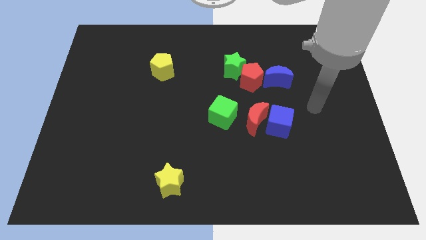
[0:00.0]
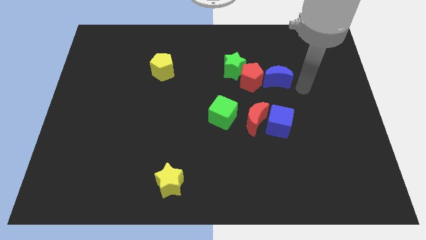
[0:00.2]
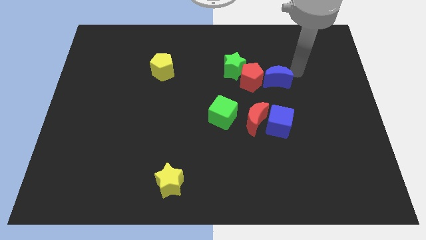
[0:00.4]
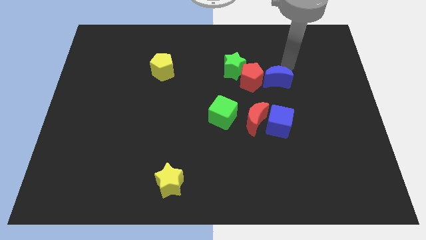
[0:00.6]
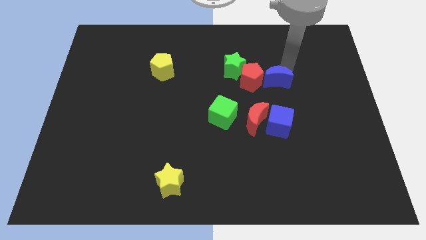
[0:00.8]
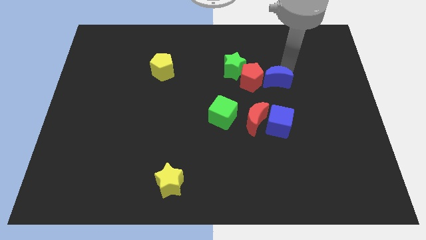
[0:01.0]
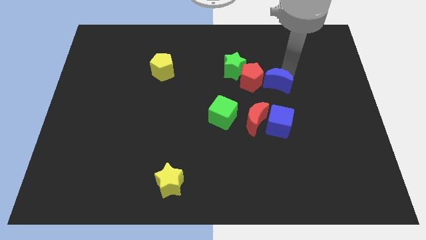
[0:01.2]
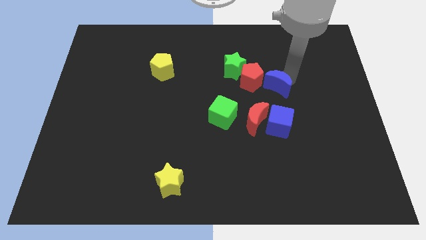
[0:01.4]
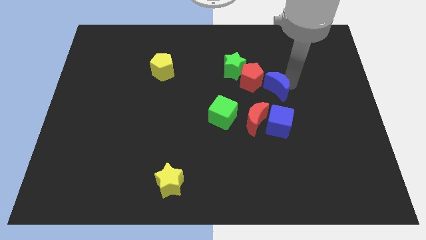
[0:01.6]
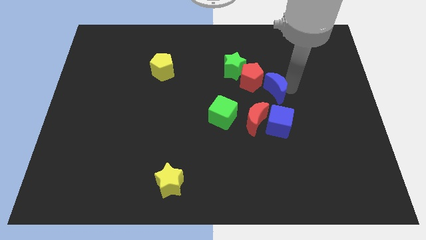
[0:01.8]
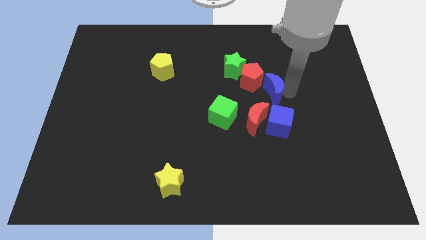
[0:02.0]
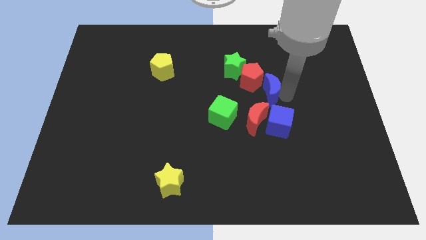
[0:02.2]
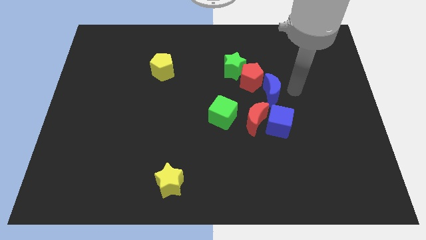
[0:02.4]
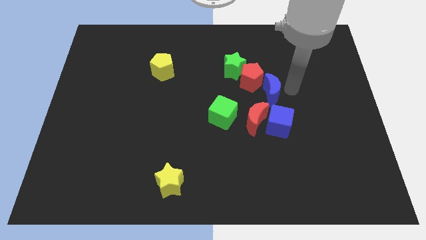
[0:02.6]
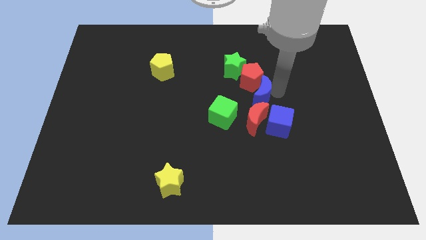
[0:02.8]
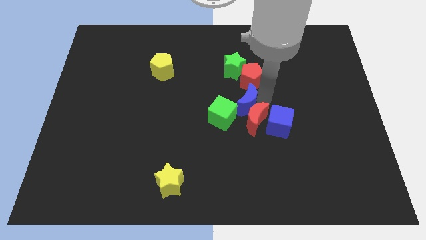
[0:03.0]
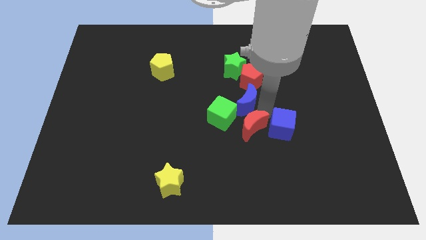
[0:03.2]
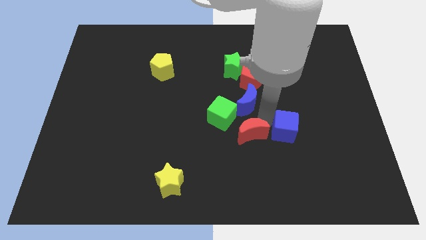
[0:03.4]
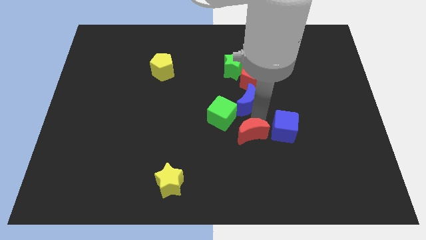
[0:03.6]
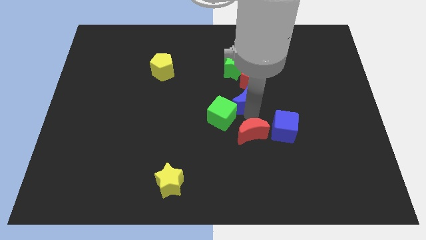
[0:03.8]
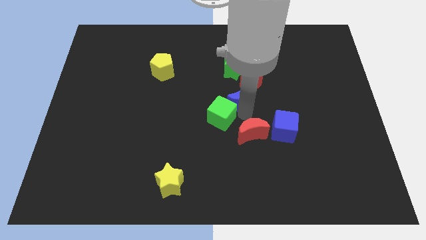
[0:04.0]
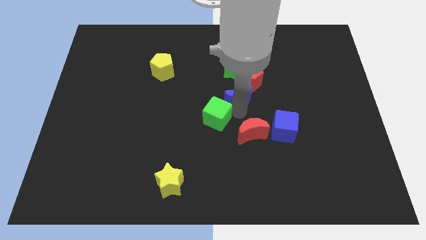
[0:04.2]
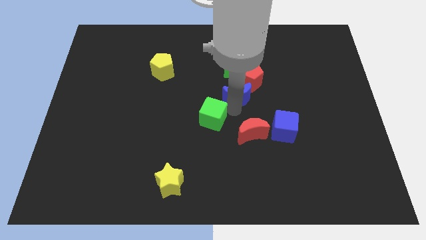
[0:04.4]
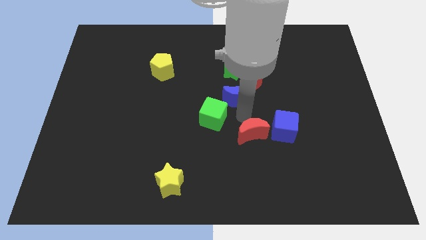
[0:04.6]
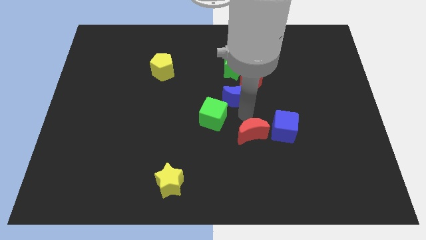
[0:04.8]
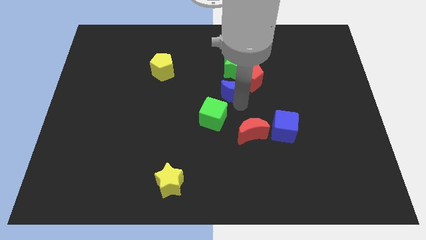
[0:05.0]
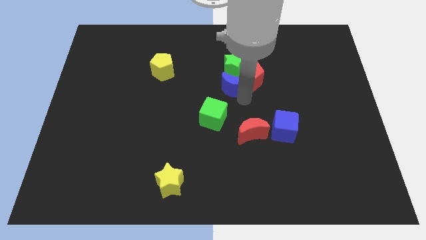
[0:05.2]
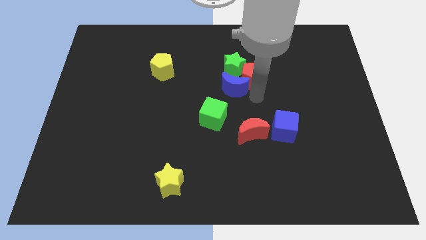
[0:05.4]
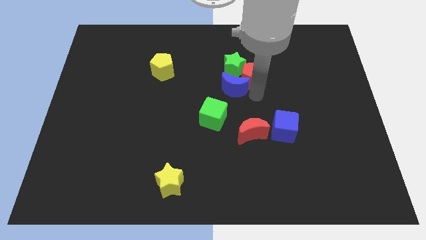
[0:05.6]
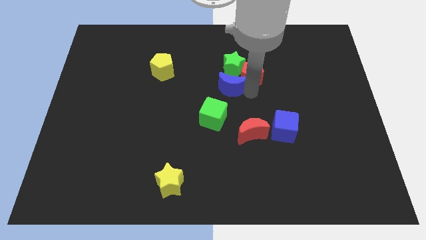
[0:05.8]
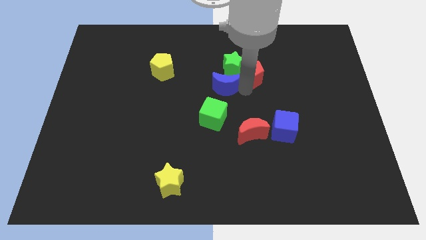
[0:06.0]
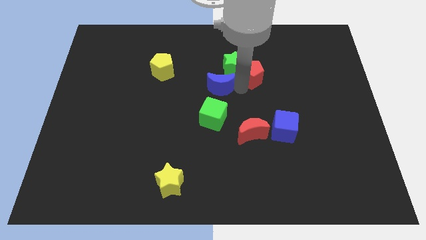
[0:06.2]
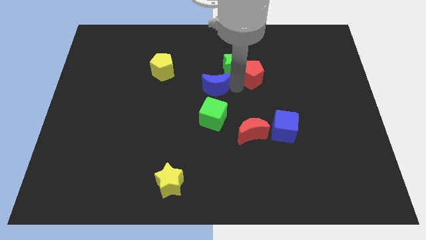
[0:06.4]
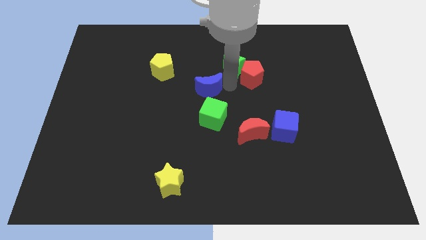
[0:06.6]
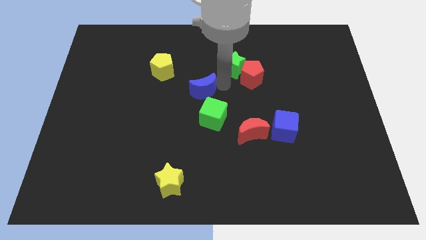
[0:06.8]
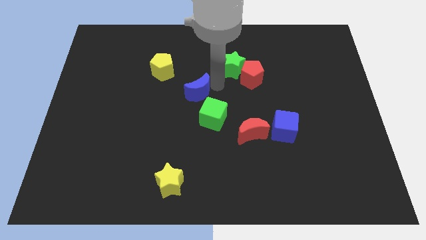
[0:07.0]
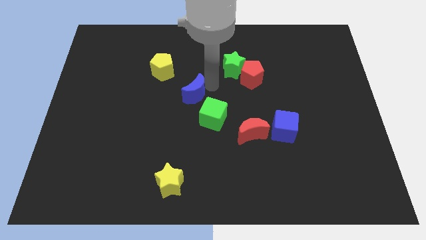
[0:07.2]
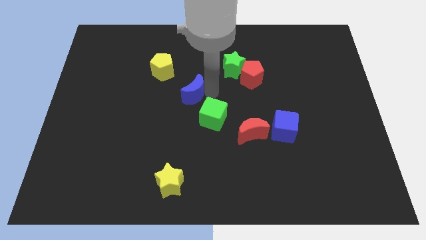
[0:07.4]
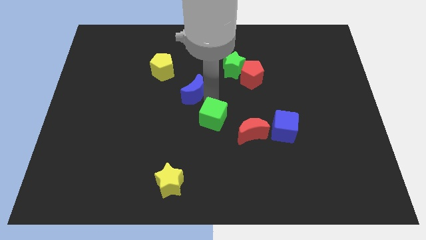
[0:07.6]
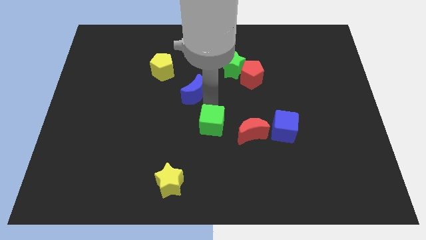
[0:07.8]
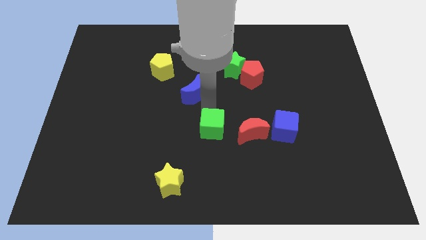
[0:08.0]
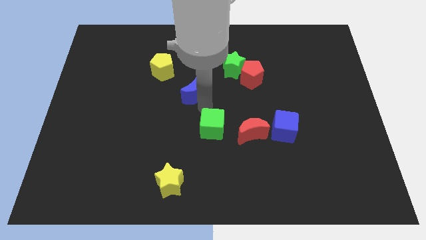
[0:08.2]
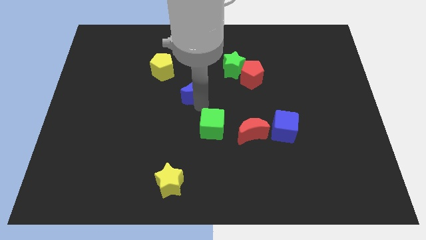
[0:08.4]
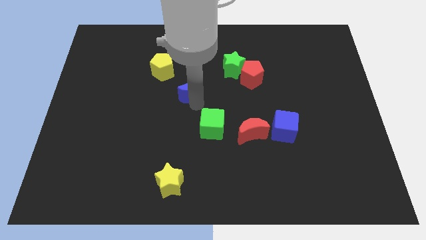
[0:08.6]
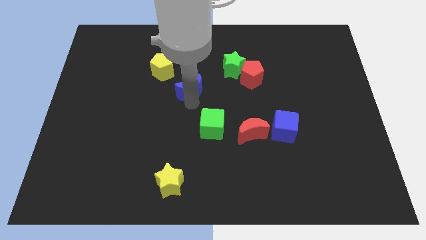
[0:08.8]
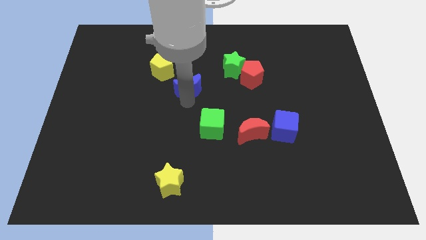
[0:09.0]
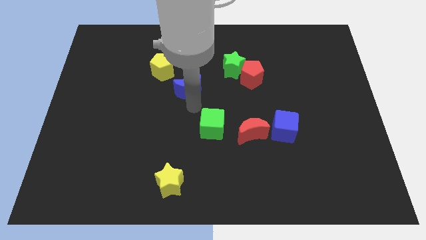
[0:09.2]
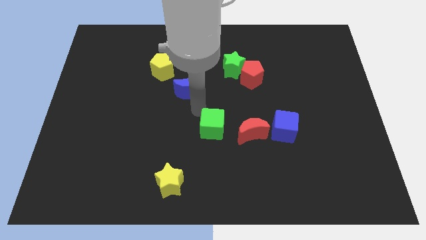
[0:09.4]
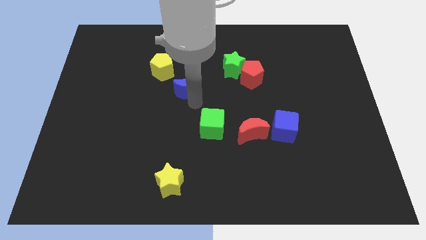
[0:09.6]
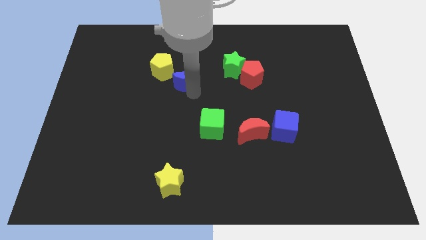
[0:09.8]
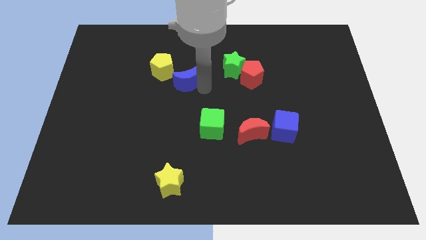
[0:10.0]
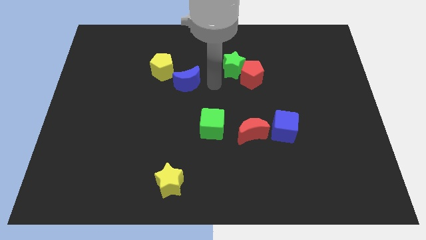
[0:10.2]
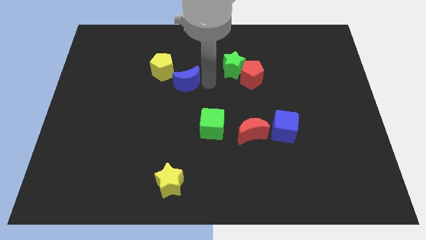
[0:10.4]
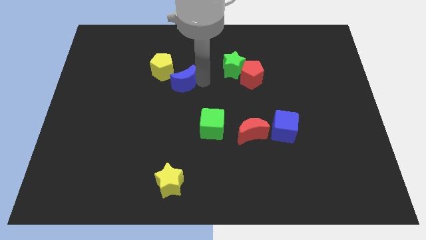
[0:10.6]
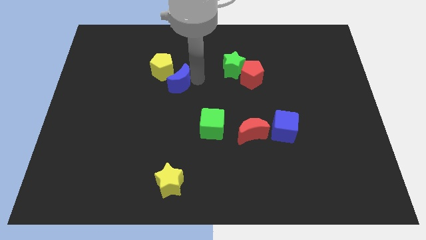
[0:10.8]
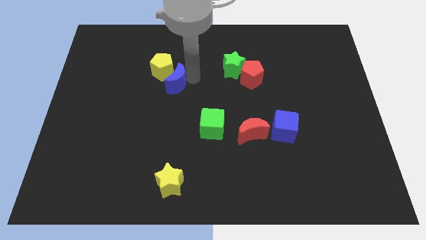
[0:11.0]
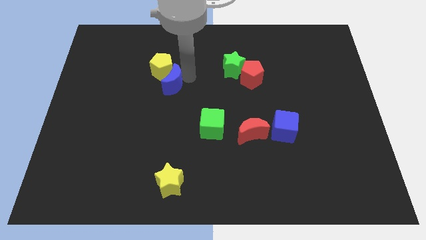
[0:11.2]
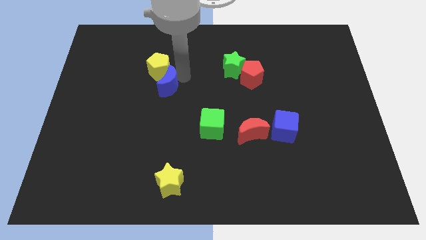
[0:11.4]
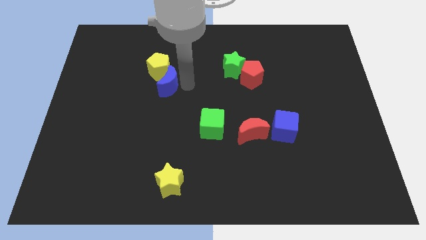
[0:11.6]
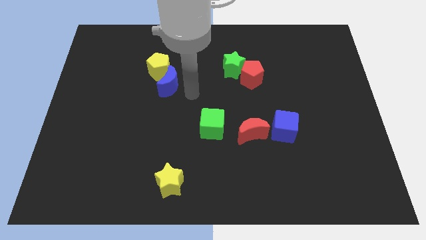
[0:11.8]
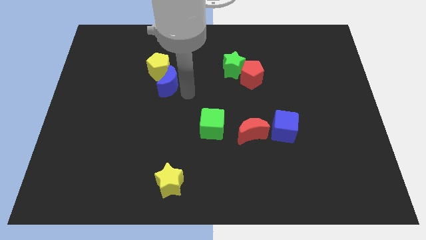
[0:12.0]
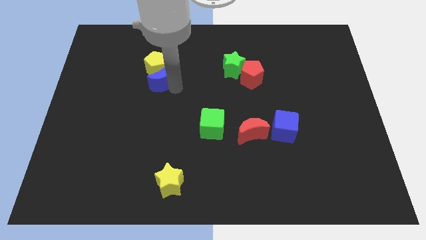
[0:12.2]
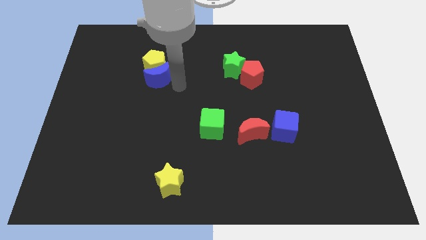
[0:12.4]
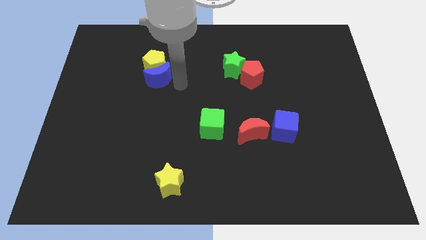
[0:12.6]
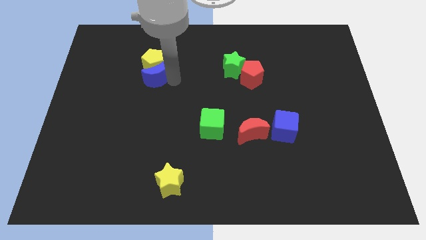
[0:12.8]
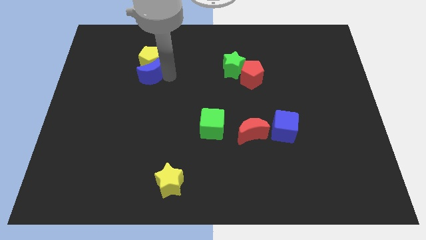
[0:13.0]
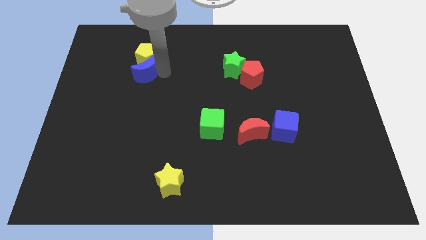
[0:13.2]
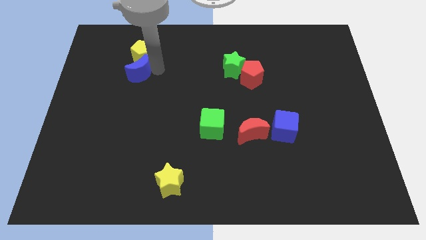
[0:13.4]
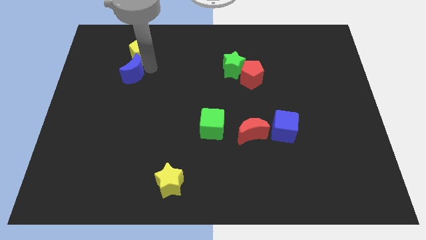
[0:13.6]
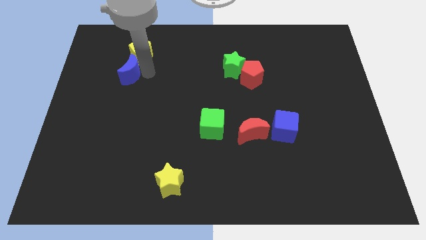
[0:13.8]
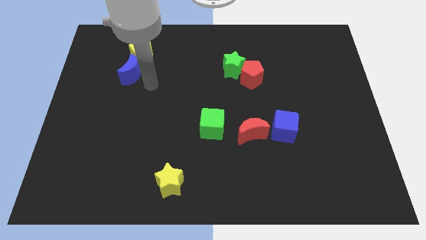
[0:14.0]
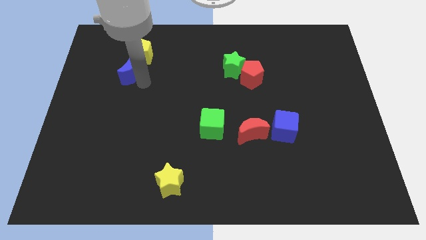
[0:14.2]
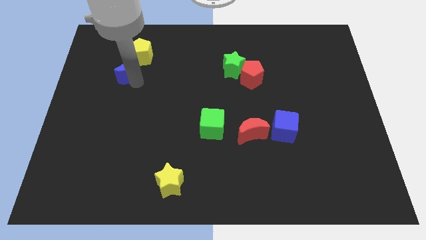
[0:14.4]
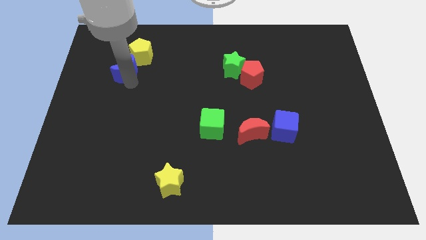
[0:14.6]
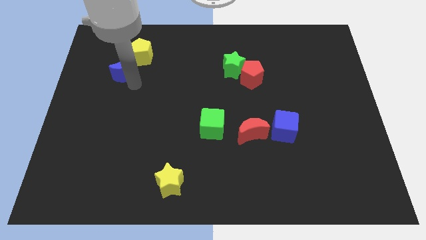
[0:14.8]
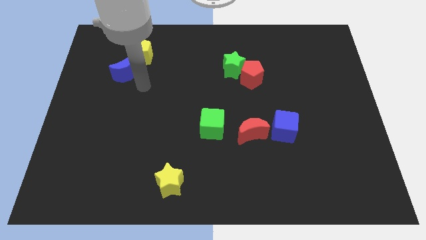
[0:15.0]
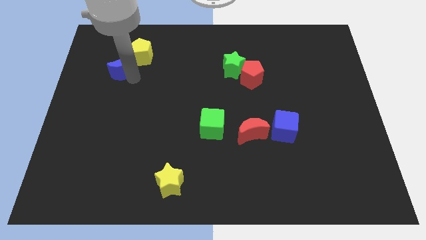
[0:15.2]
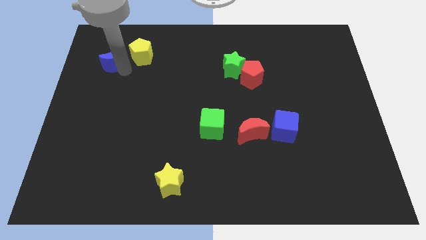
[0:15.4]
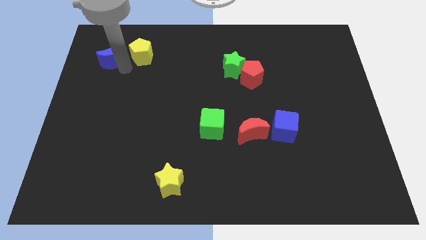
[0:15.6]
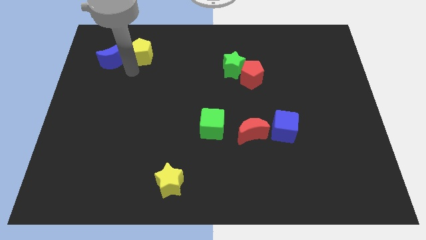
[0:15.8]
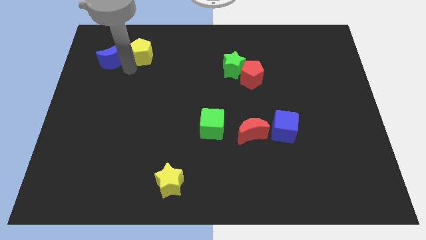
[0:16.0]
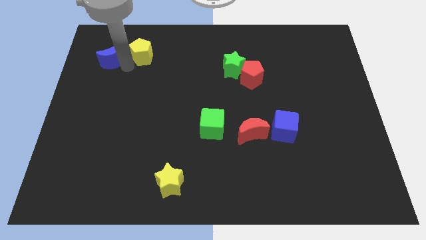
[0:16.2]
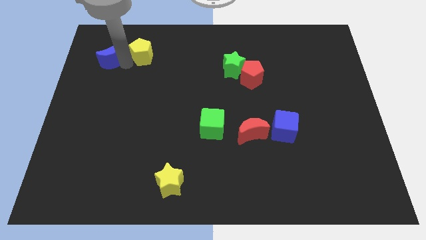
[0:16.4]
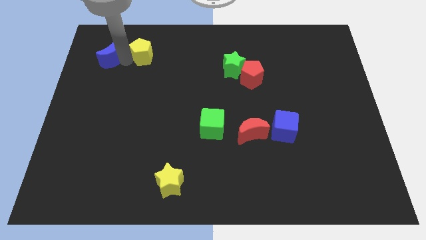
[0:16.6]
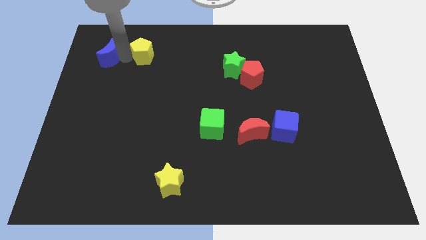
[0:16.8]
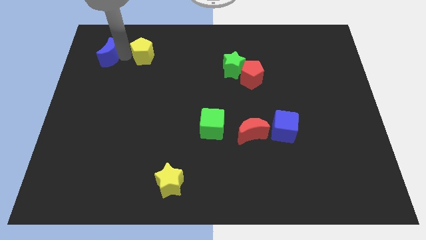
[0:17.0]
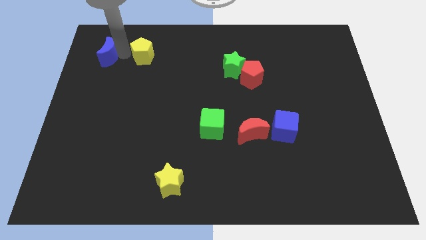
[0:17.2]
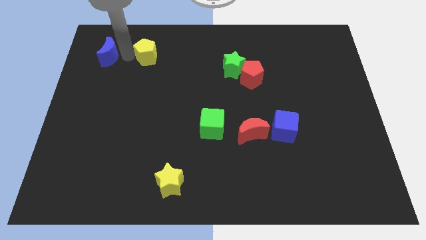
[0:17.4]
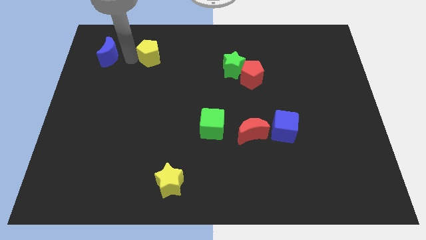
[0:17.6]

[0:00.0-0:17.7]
put the blue moon just left of the yellow pentagon
